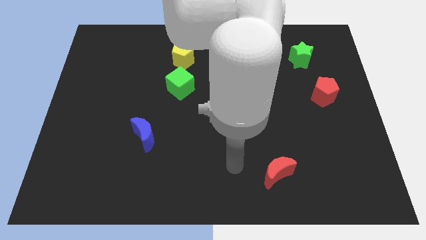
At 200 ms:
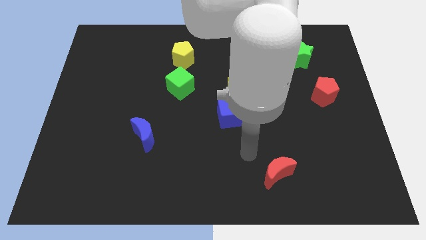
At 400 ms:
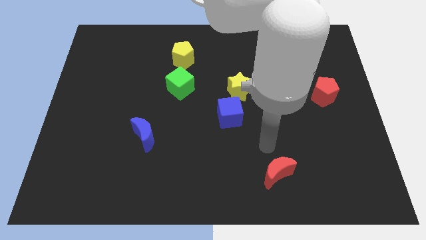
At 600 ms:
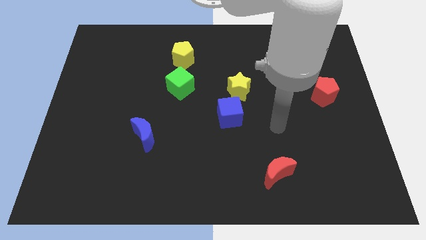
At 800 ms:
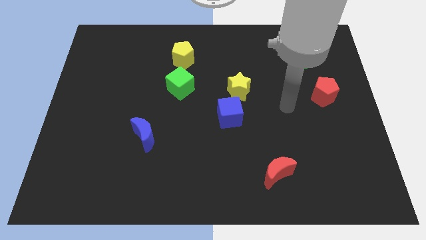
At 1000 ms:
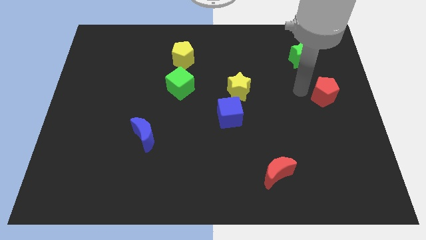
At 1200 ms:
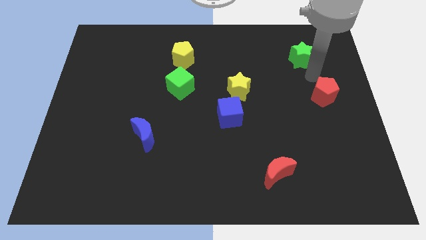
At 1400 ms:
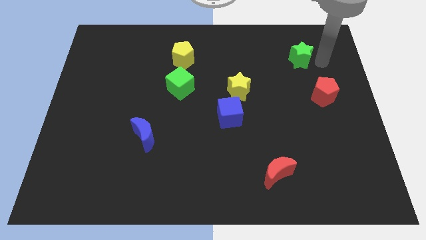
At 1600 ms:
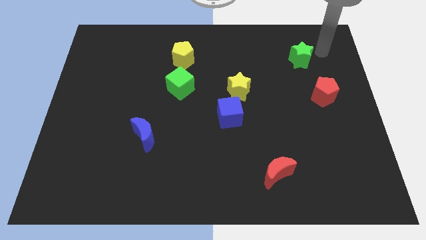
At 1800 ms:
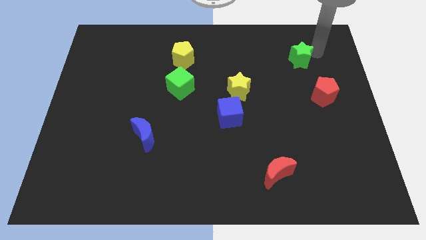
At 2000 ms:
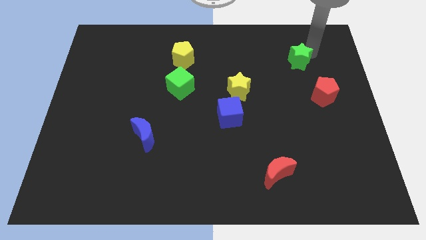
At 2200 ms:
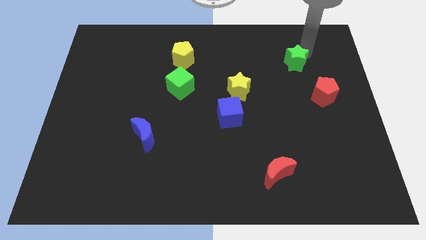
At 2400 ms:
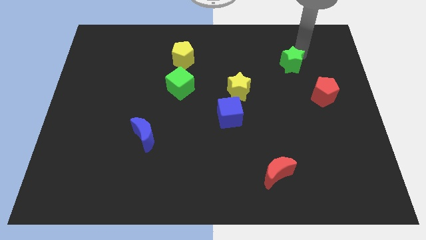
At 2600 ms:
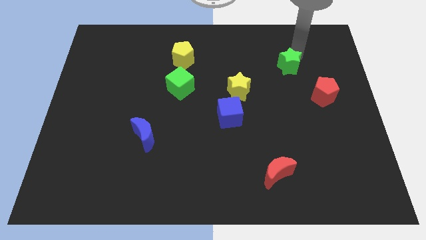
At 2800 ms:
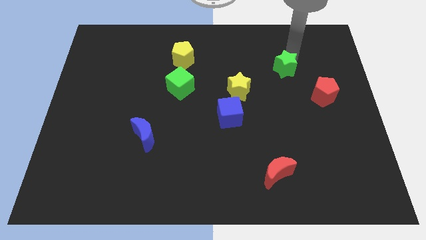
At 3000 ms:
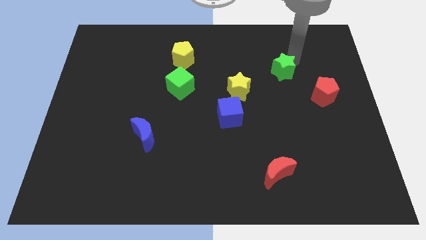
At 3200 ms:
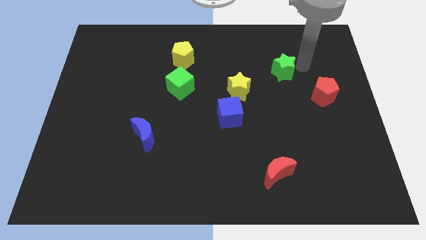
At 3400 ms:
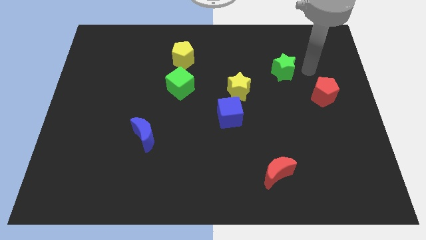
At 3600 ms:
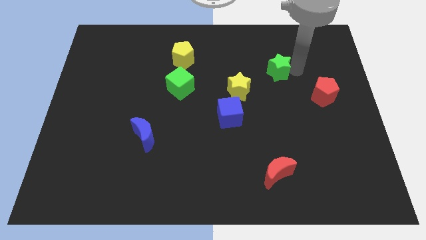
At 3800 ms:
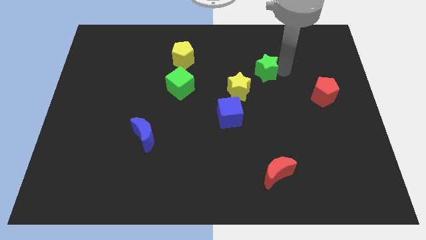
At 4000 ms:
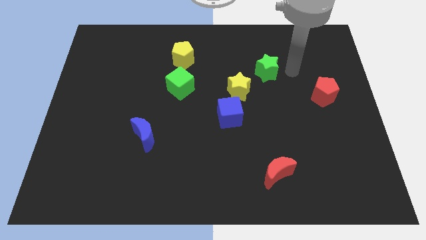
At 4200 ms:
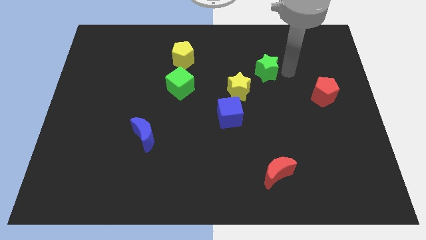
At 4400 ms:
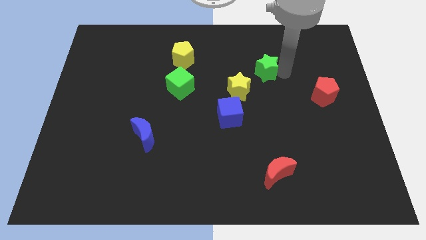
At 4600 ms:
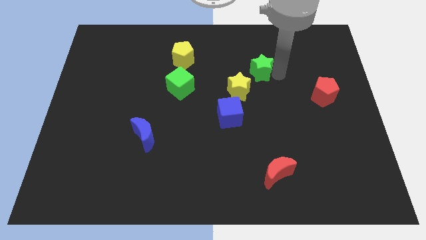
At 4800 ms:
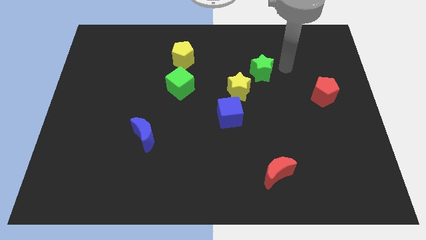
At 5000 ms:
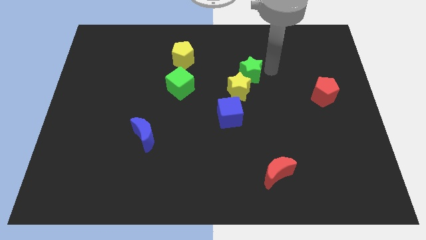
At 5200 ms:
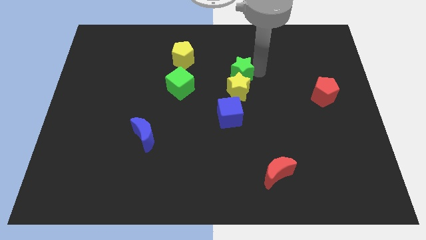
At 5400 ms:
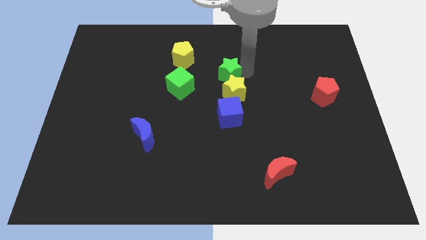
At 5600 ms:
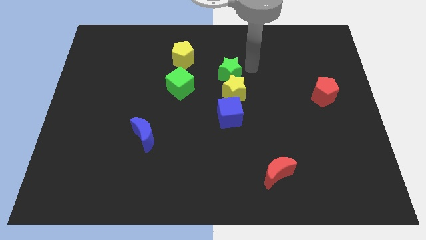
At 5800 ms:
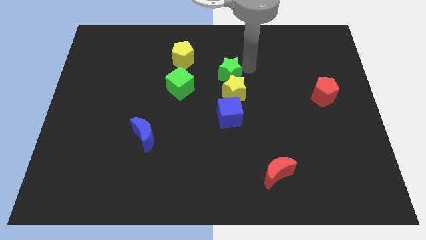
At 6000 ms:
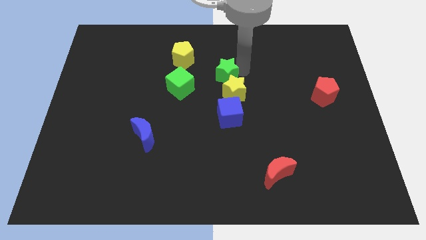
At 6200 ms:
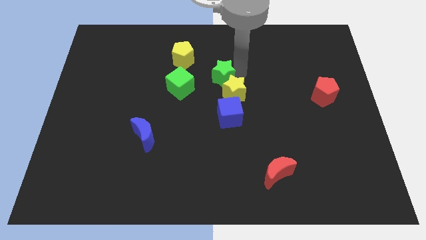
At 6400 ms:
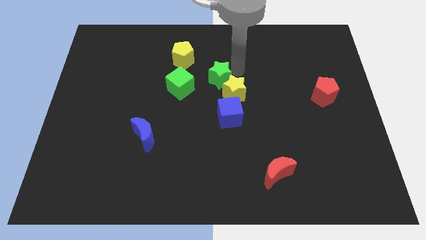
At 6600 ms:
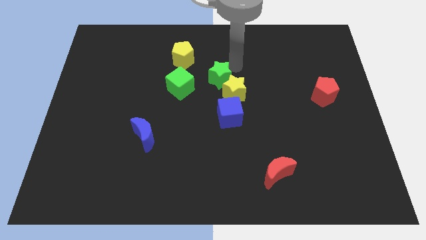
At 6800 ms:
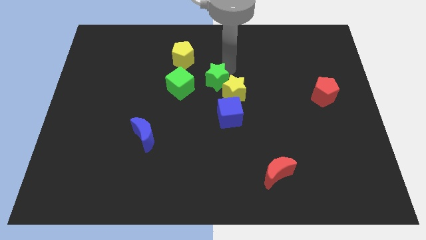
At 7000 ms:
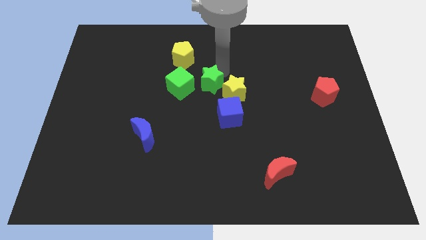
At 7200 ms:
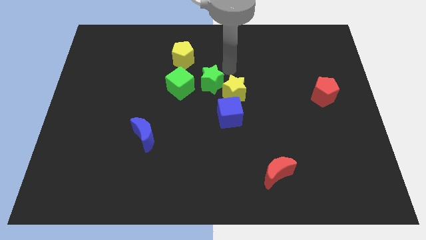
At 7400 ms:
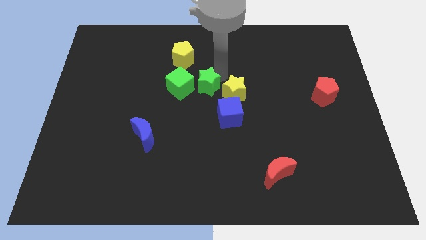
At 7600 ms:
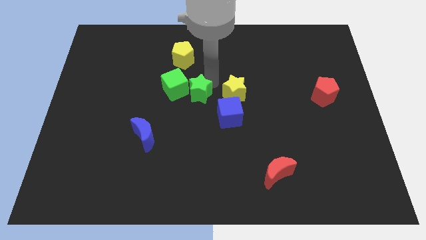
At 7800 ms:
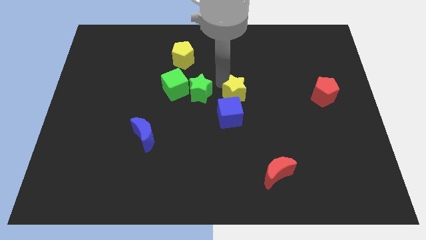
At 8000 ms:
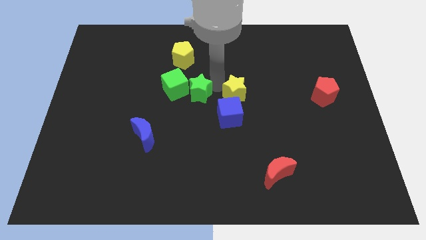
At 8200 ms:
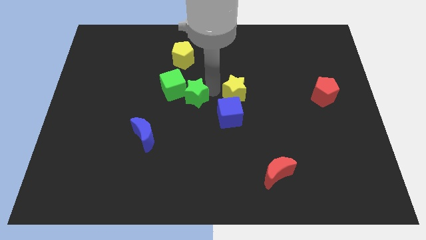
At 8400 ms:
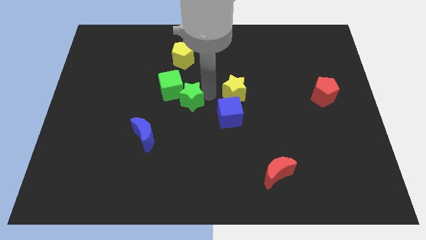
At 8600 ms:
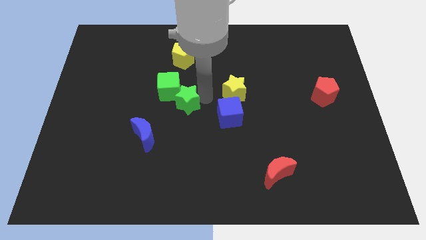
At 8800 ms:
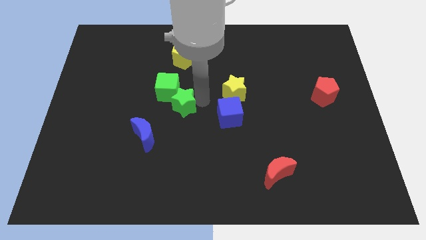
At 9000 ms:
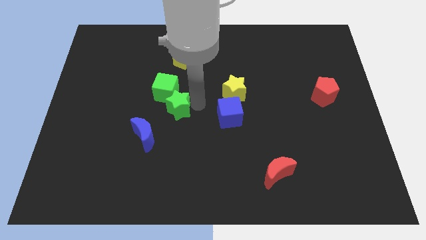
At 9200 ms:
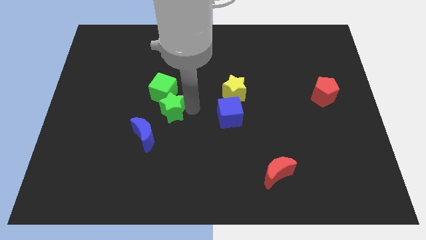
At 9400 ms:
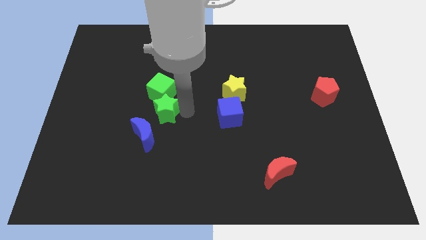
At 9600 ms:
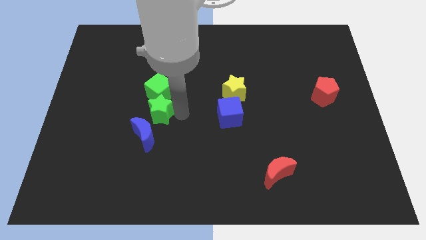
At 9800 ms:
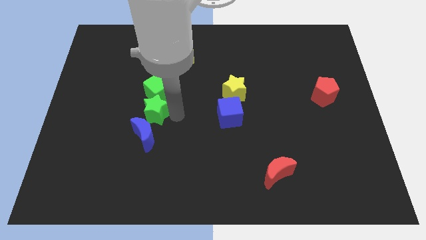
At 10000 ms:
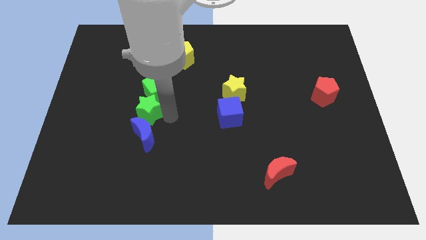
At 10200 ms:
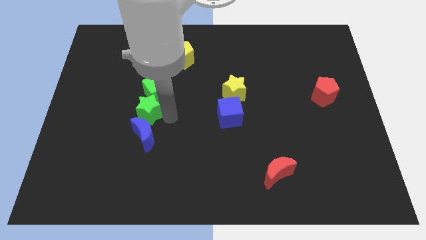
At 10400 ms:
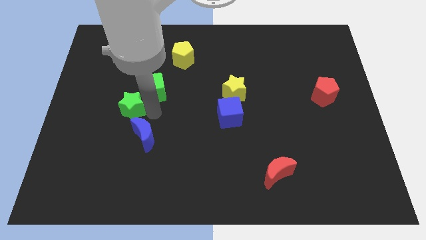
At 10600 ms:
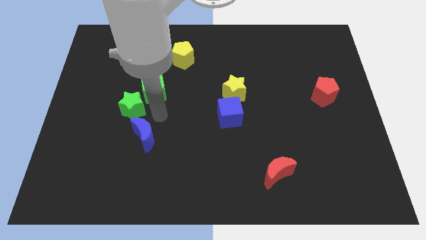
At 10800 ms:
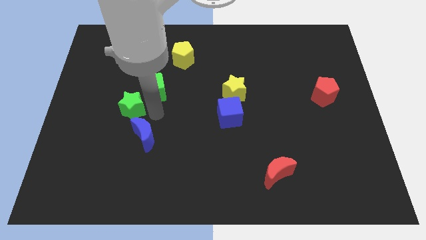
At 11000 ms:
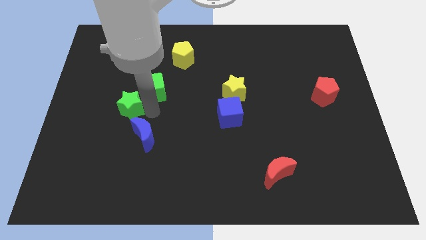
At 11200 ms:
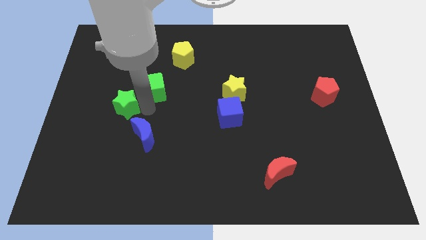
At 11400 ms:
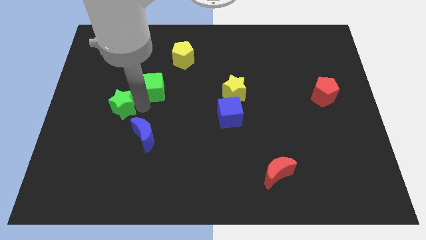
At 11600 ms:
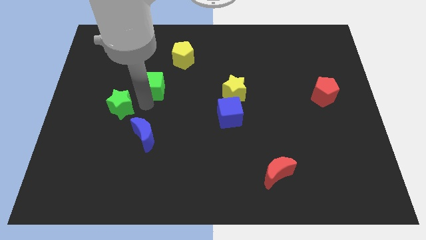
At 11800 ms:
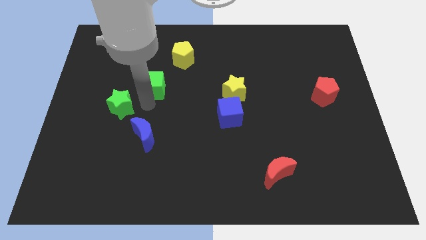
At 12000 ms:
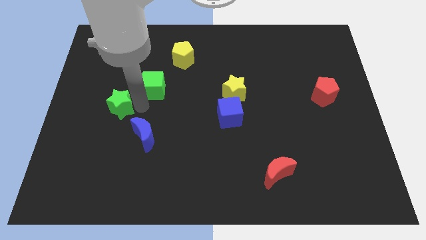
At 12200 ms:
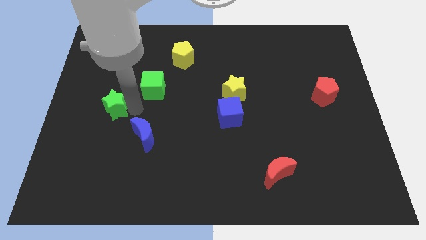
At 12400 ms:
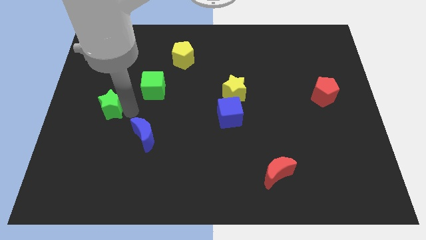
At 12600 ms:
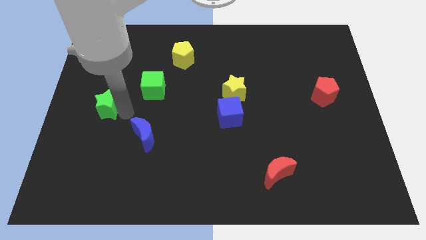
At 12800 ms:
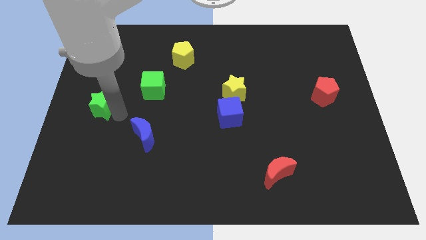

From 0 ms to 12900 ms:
move the green star to the left side of the board

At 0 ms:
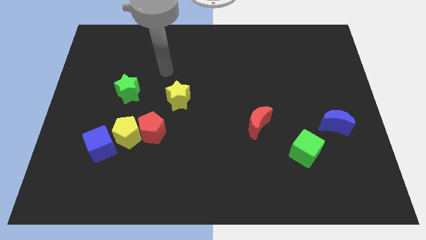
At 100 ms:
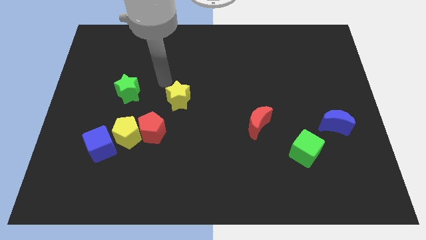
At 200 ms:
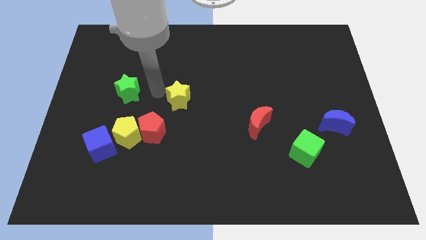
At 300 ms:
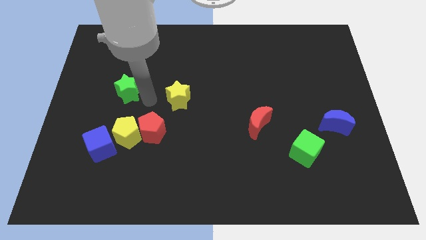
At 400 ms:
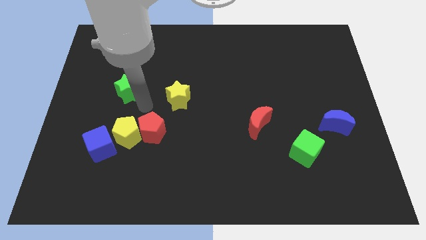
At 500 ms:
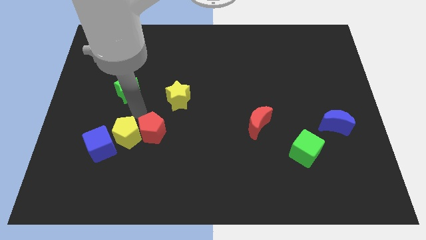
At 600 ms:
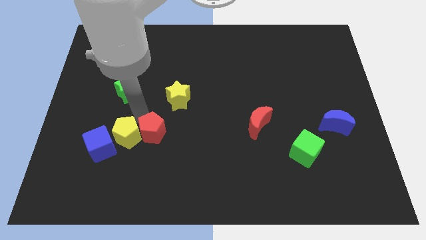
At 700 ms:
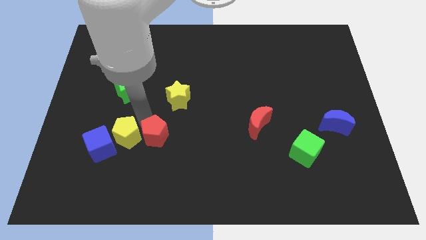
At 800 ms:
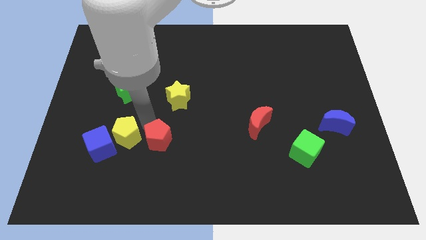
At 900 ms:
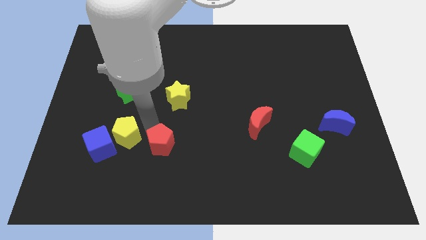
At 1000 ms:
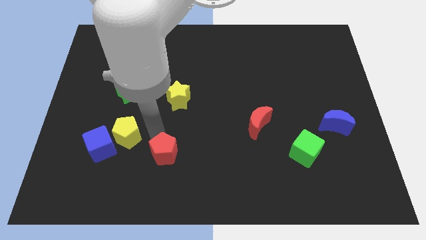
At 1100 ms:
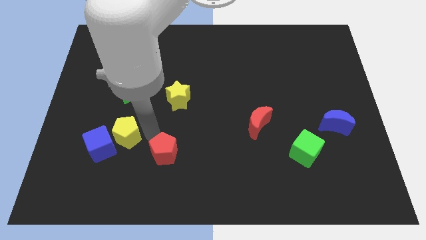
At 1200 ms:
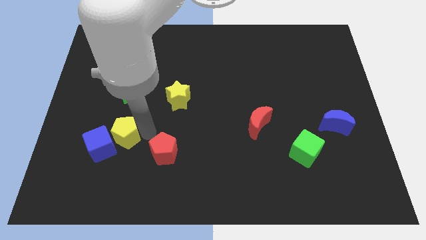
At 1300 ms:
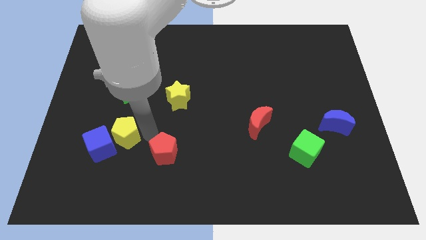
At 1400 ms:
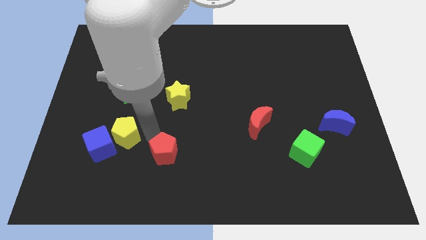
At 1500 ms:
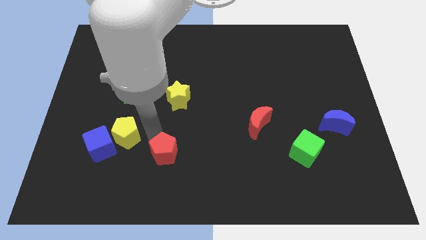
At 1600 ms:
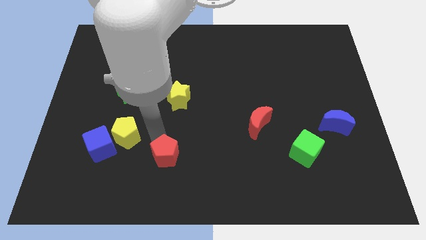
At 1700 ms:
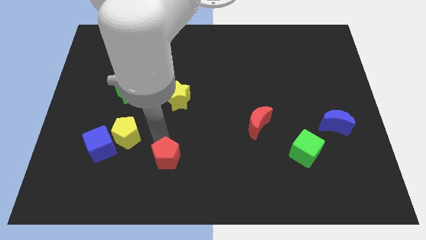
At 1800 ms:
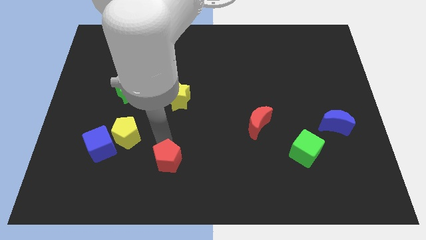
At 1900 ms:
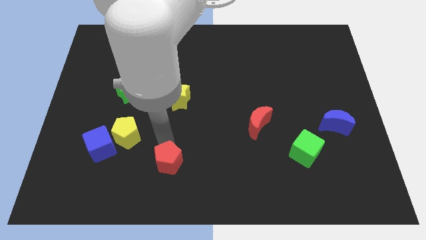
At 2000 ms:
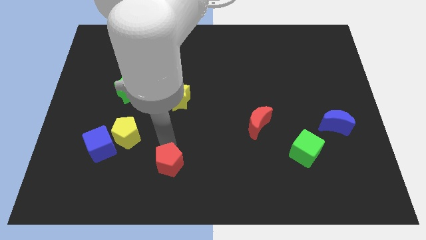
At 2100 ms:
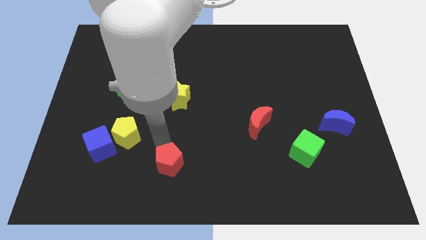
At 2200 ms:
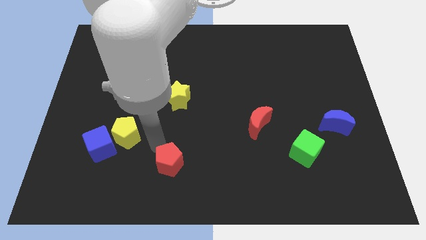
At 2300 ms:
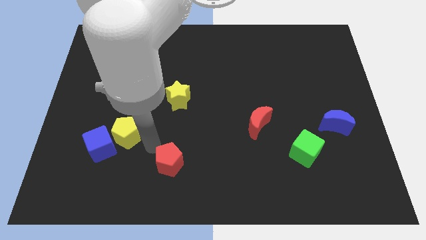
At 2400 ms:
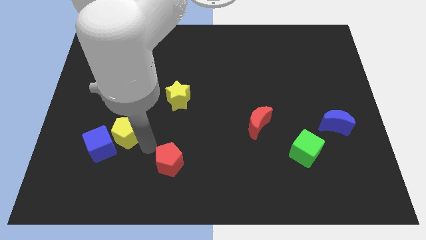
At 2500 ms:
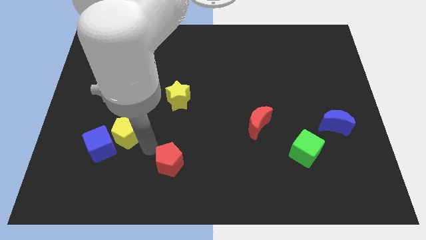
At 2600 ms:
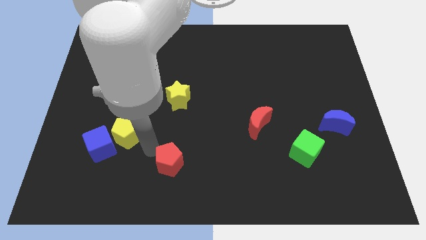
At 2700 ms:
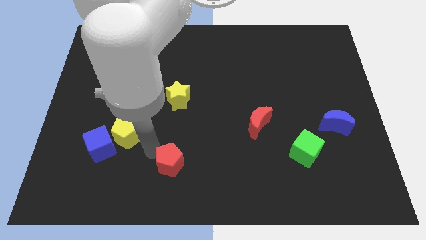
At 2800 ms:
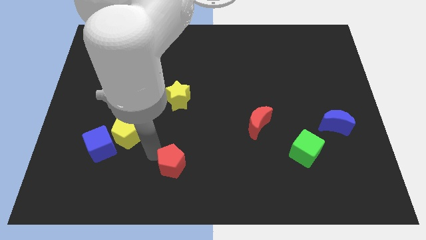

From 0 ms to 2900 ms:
push the red pentagon to the bottom
